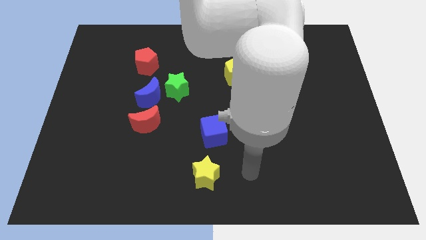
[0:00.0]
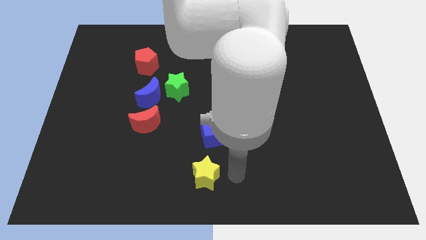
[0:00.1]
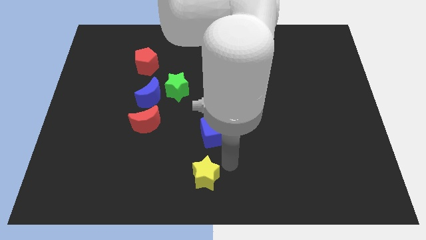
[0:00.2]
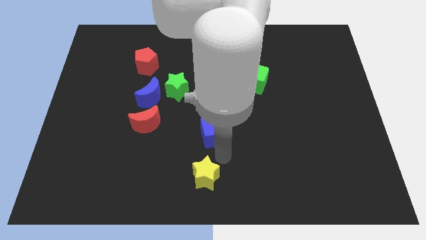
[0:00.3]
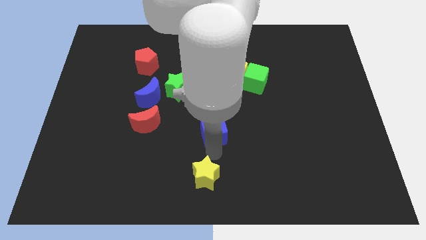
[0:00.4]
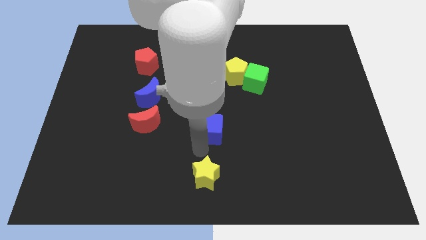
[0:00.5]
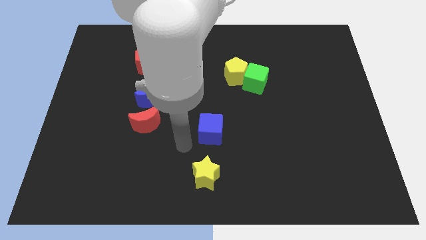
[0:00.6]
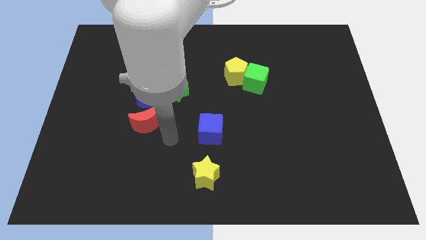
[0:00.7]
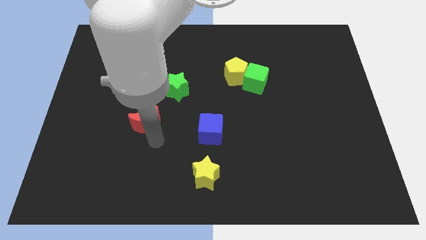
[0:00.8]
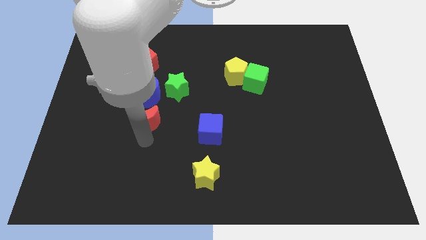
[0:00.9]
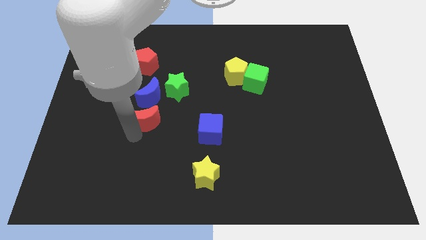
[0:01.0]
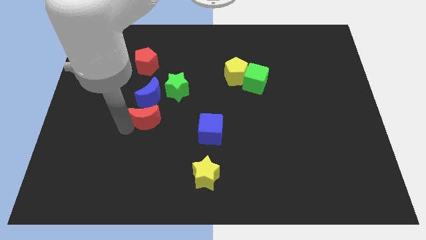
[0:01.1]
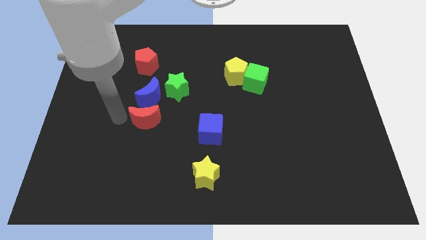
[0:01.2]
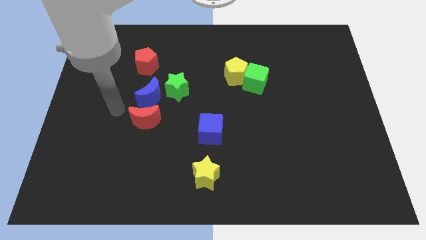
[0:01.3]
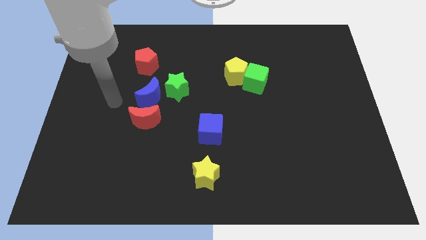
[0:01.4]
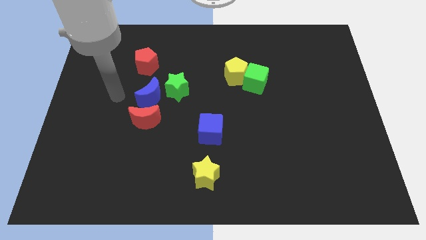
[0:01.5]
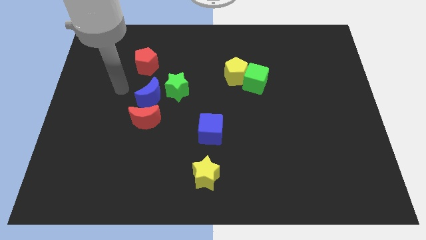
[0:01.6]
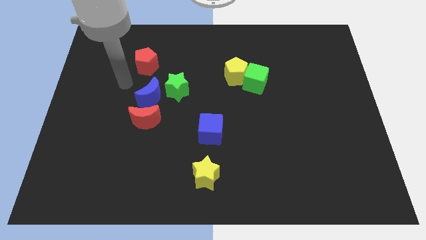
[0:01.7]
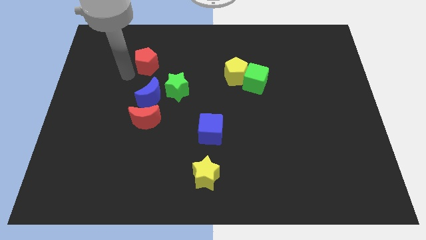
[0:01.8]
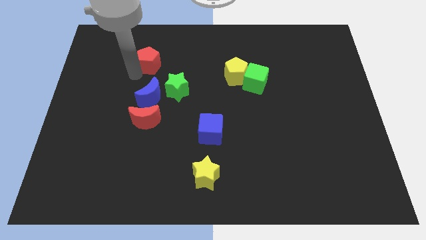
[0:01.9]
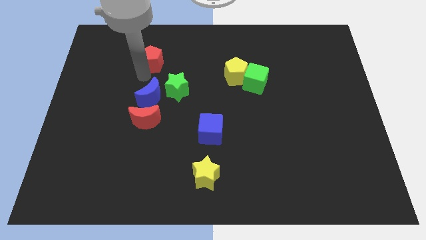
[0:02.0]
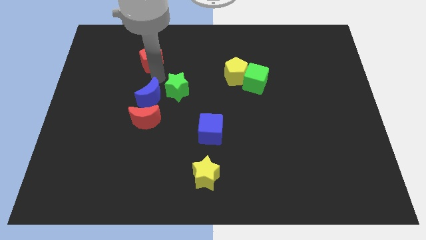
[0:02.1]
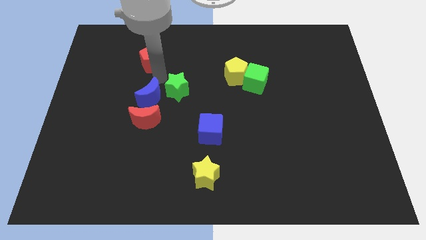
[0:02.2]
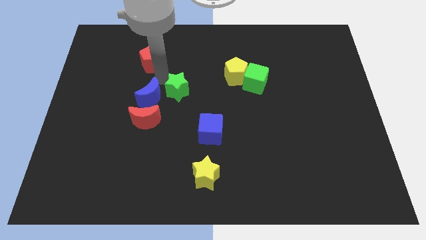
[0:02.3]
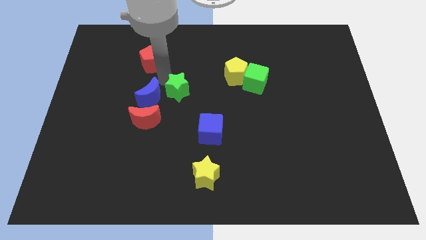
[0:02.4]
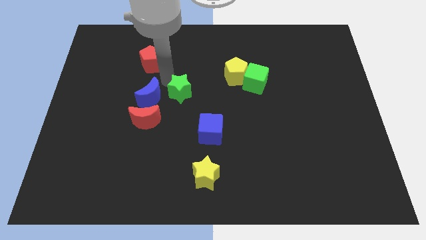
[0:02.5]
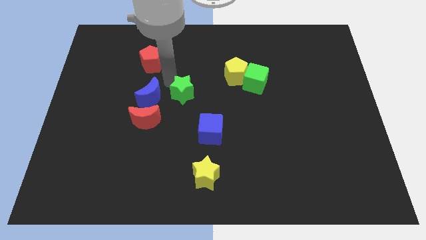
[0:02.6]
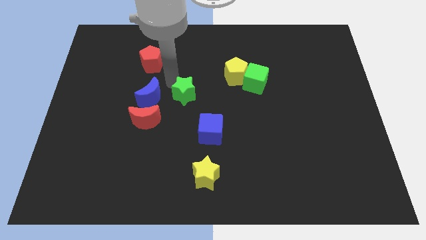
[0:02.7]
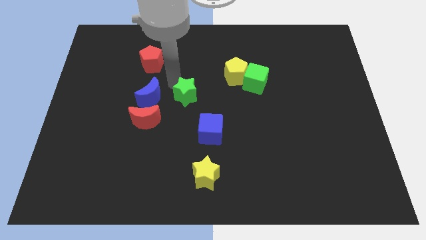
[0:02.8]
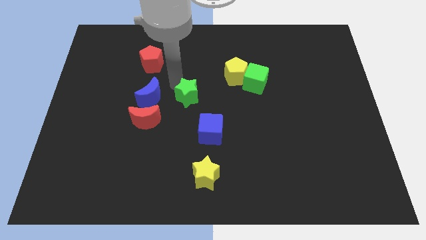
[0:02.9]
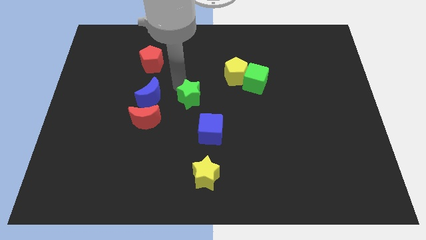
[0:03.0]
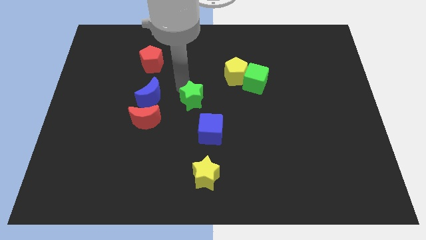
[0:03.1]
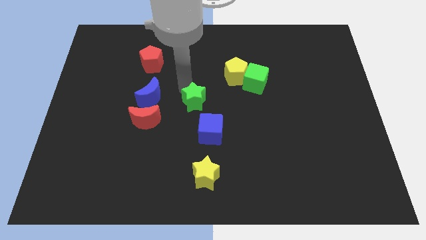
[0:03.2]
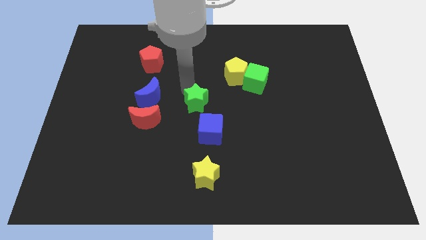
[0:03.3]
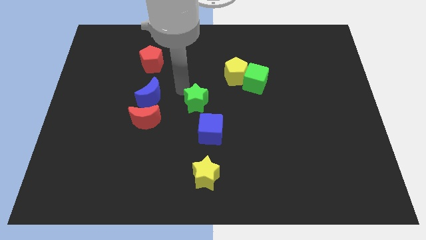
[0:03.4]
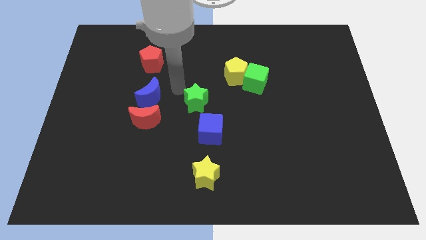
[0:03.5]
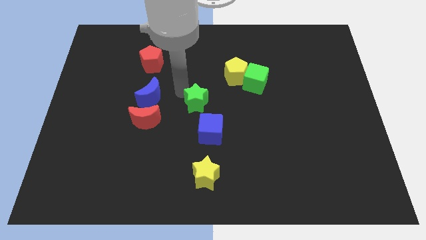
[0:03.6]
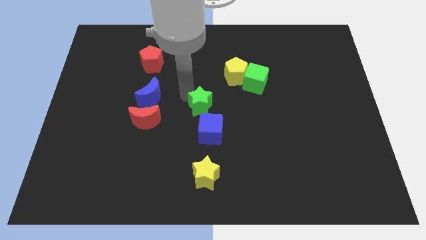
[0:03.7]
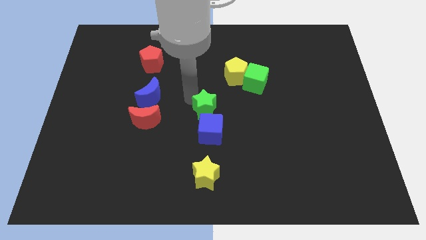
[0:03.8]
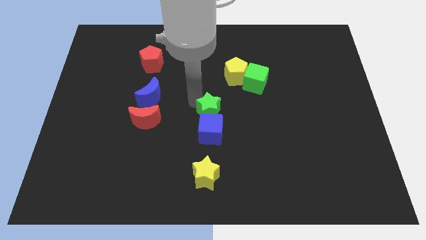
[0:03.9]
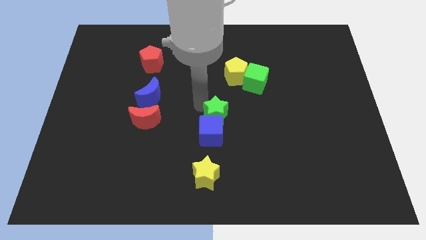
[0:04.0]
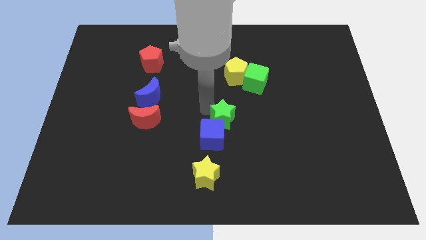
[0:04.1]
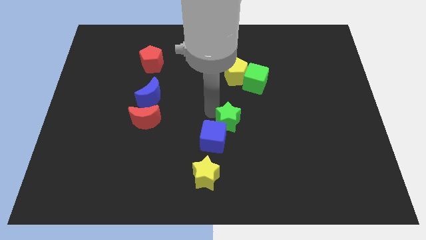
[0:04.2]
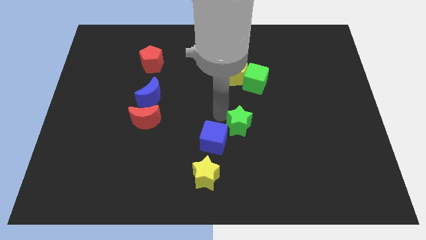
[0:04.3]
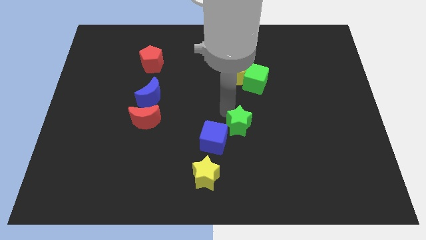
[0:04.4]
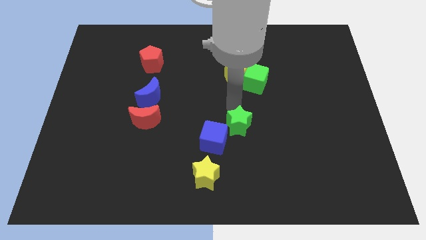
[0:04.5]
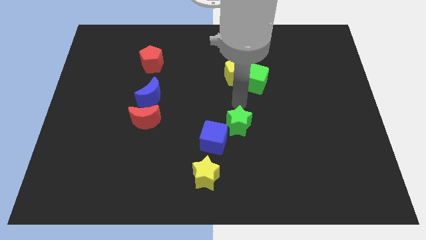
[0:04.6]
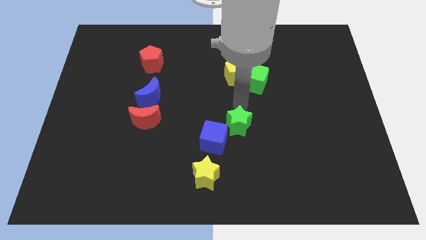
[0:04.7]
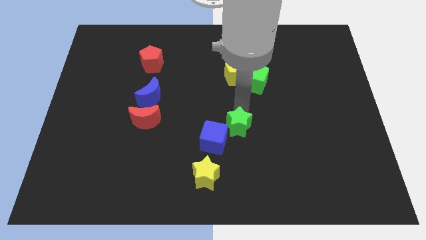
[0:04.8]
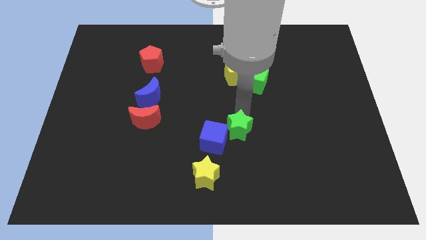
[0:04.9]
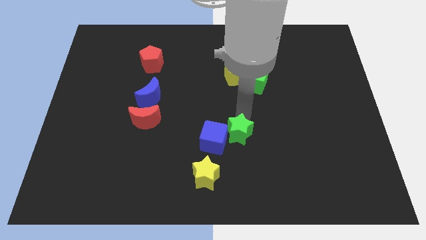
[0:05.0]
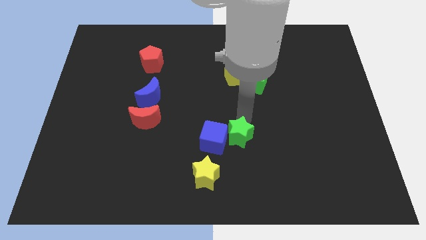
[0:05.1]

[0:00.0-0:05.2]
push the green star to the bottom right side of the blue cube

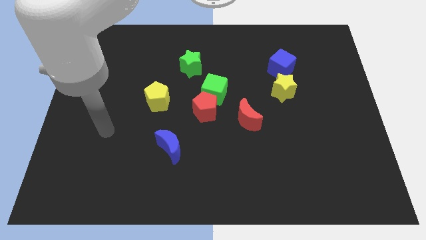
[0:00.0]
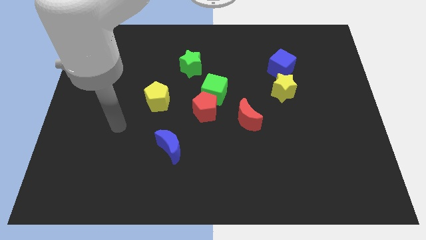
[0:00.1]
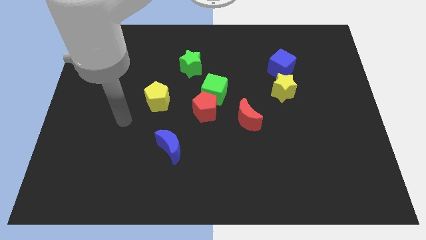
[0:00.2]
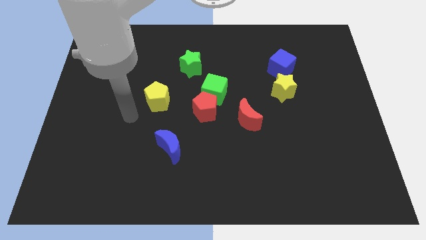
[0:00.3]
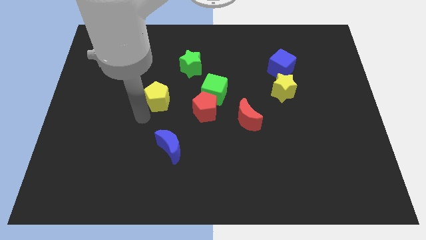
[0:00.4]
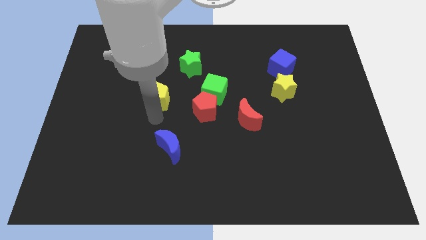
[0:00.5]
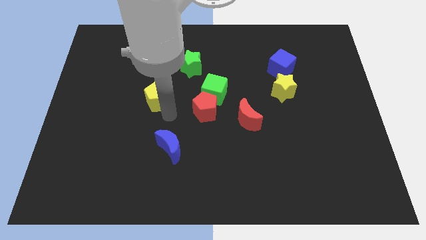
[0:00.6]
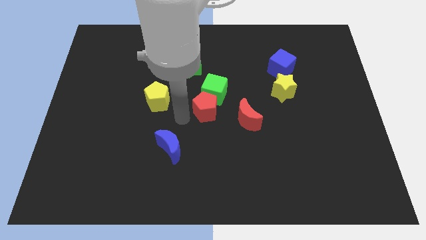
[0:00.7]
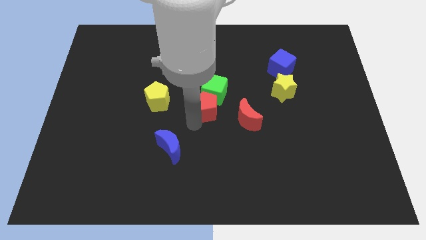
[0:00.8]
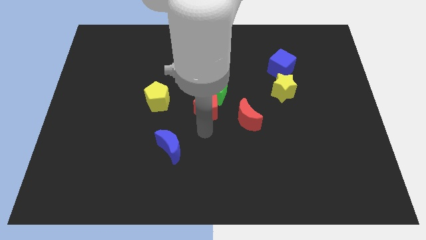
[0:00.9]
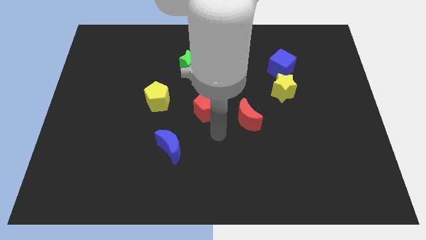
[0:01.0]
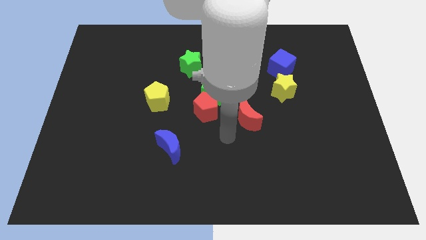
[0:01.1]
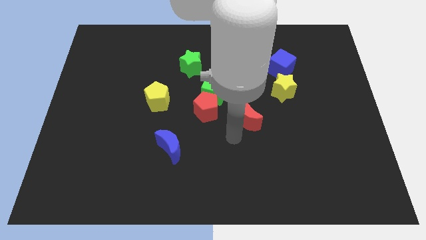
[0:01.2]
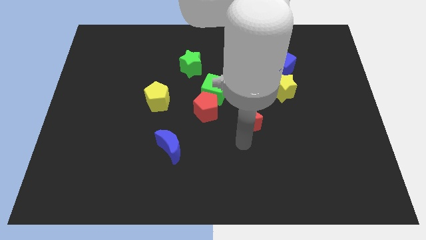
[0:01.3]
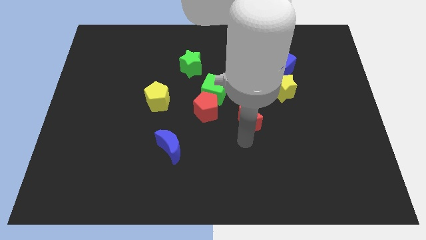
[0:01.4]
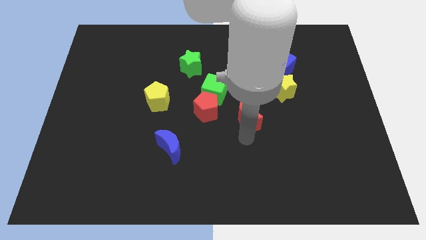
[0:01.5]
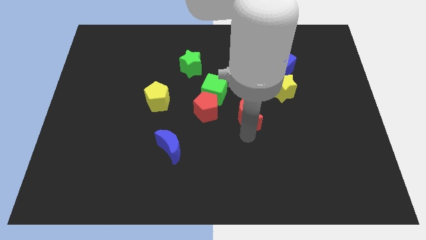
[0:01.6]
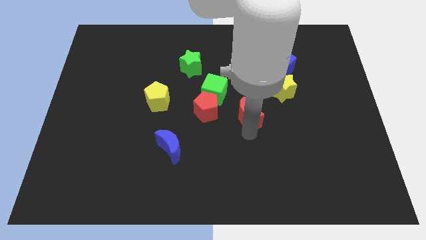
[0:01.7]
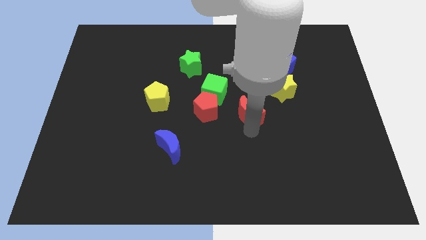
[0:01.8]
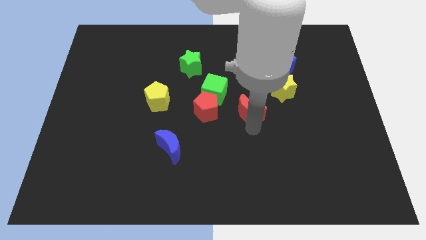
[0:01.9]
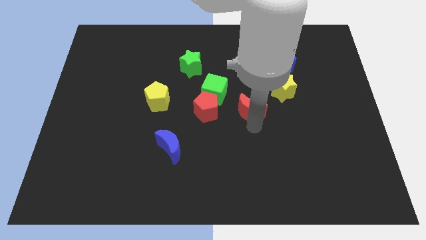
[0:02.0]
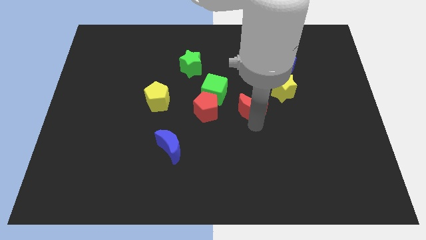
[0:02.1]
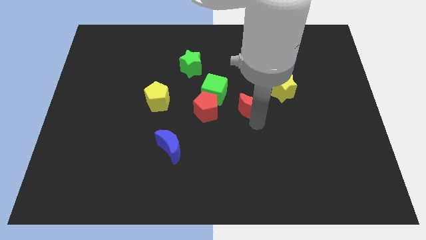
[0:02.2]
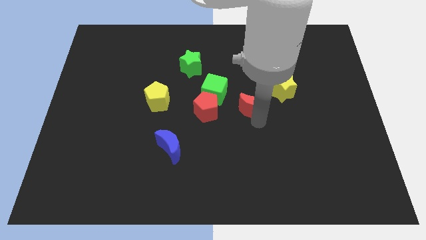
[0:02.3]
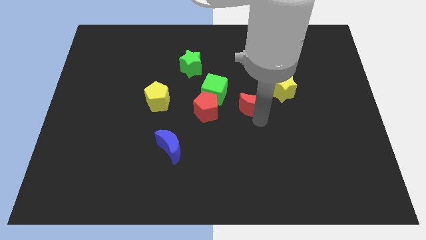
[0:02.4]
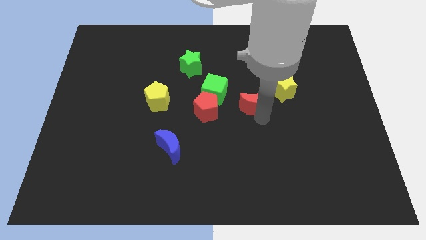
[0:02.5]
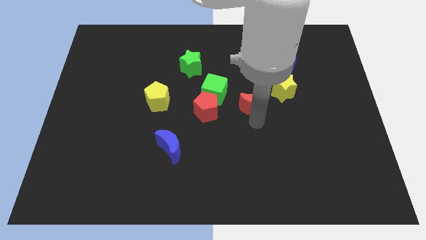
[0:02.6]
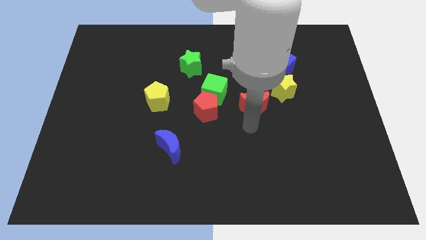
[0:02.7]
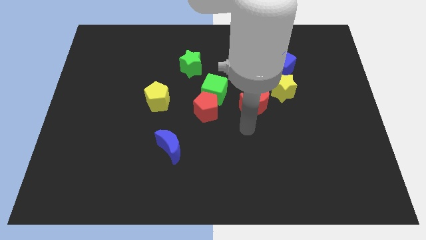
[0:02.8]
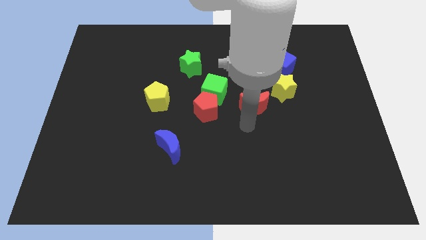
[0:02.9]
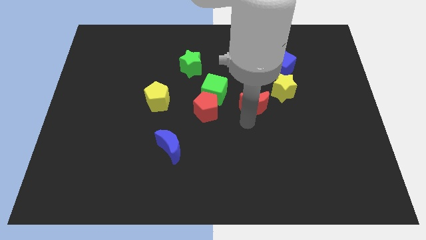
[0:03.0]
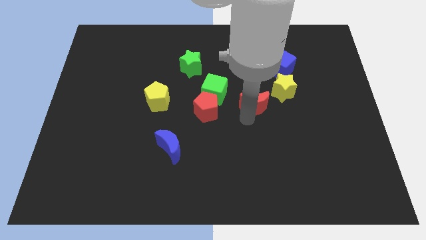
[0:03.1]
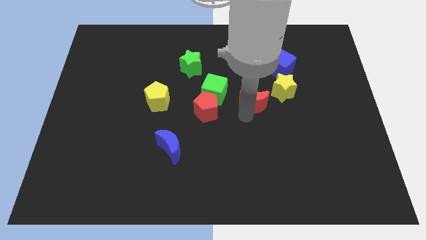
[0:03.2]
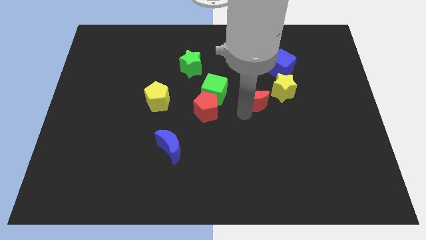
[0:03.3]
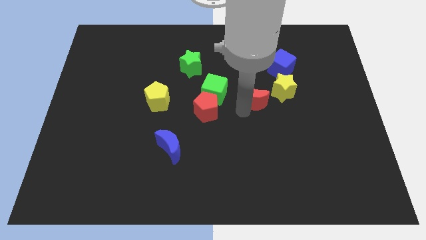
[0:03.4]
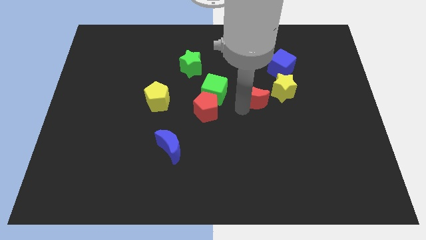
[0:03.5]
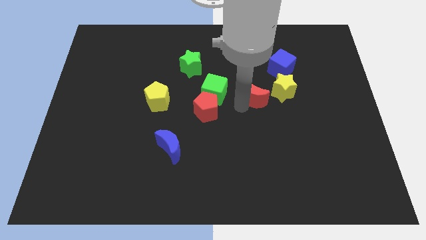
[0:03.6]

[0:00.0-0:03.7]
put the red moon to the bottom left side of the blue cube
